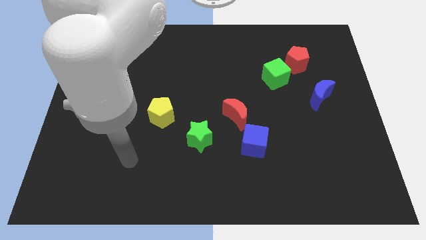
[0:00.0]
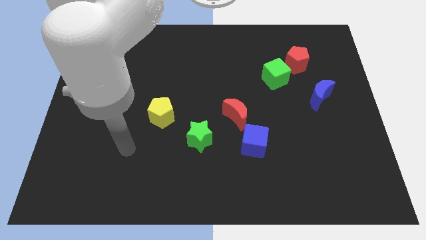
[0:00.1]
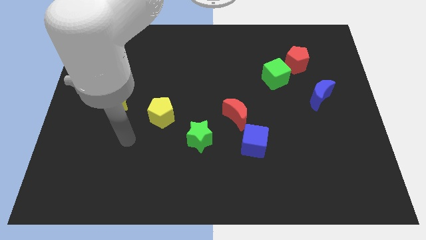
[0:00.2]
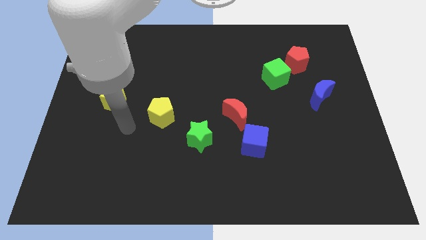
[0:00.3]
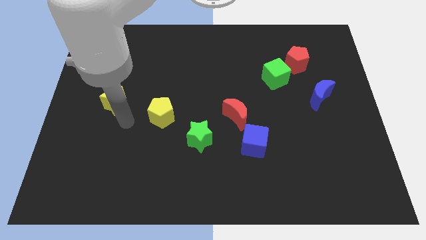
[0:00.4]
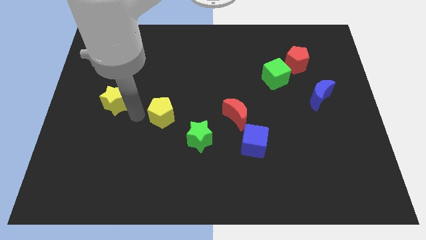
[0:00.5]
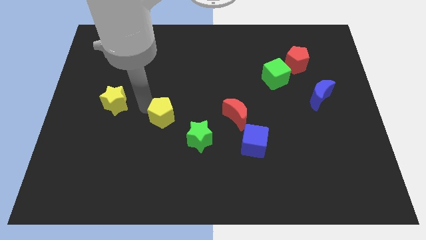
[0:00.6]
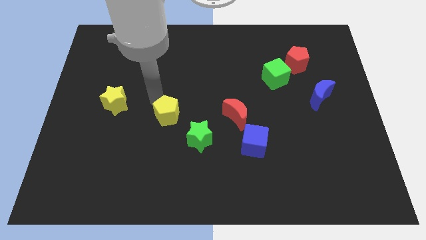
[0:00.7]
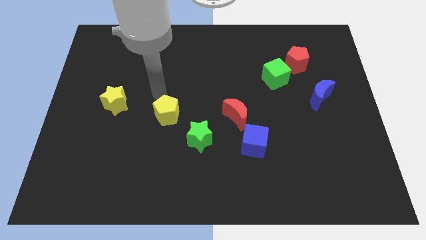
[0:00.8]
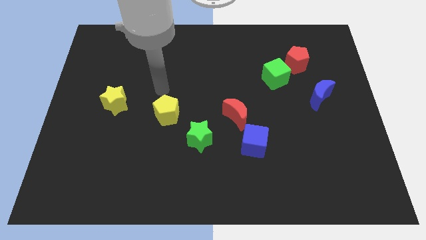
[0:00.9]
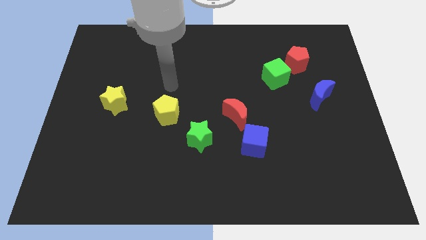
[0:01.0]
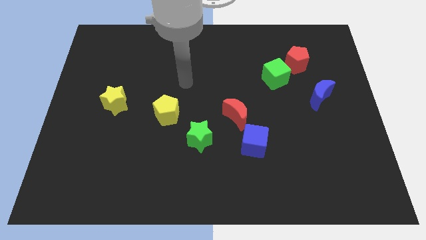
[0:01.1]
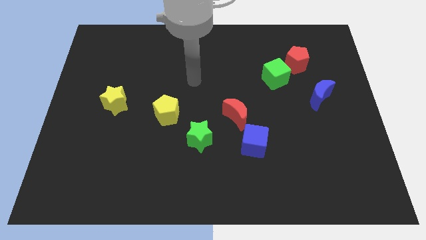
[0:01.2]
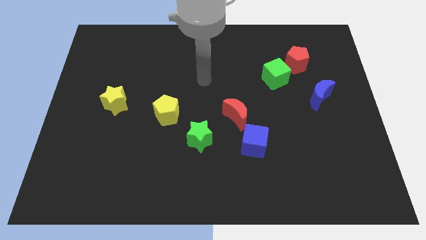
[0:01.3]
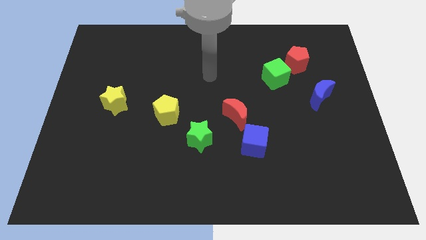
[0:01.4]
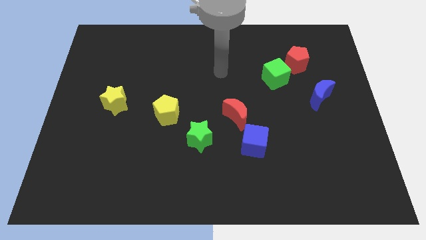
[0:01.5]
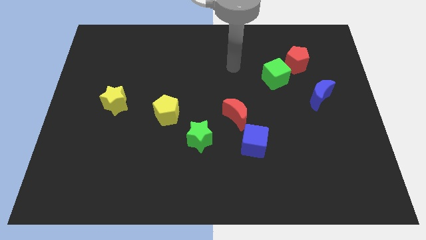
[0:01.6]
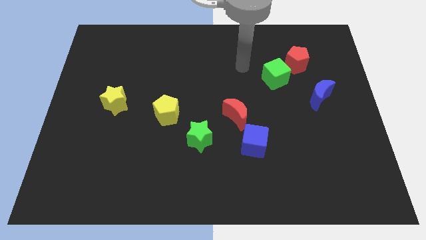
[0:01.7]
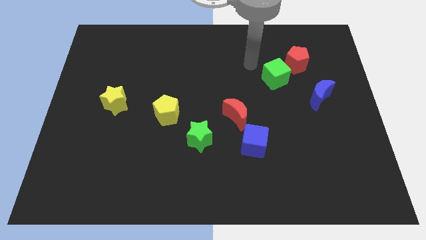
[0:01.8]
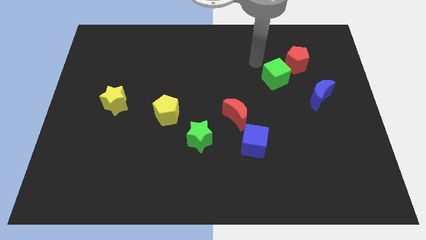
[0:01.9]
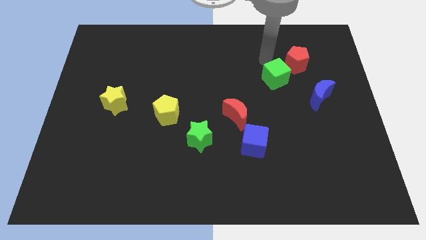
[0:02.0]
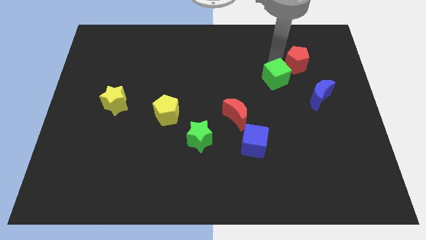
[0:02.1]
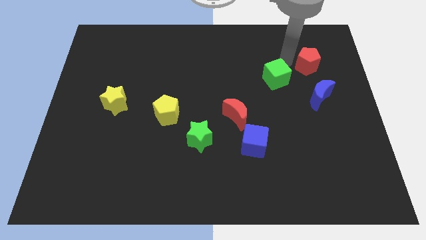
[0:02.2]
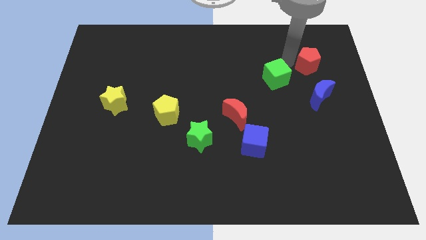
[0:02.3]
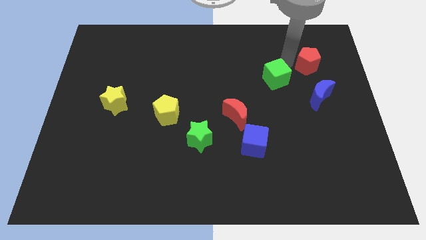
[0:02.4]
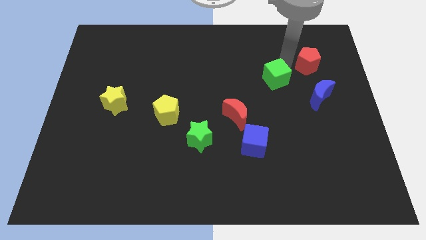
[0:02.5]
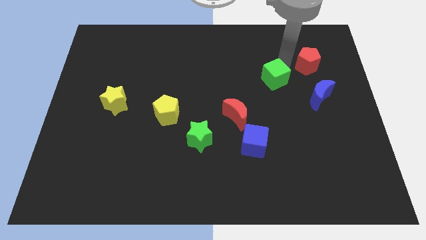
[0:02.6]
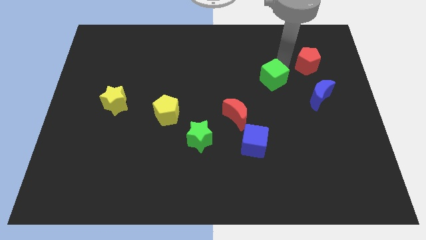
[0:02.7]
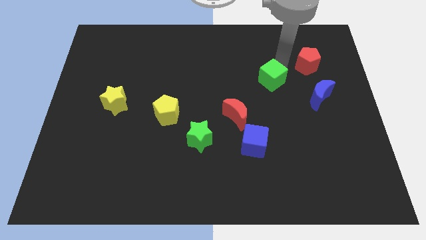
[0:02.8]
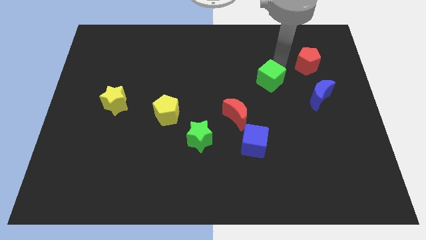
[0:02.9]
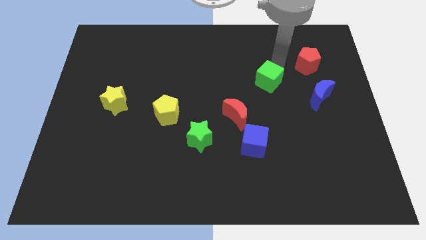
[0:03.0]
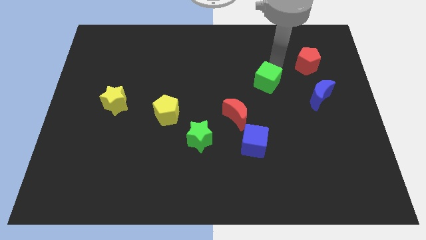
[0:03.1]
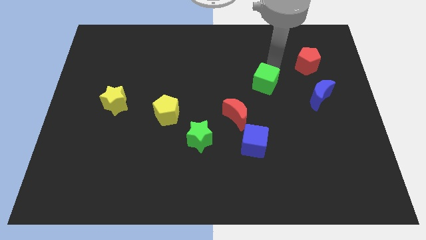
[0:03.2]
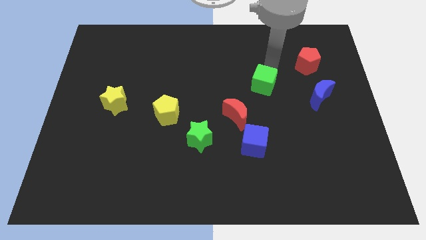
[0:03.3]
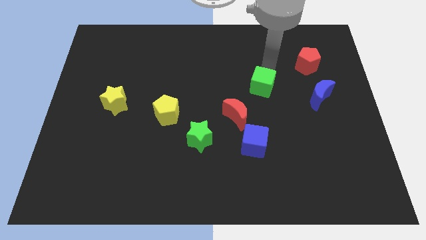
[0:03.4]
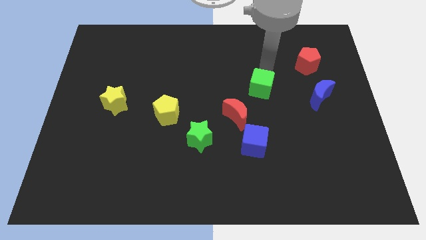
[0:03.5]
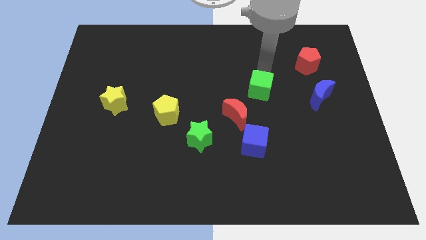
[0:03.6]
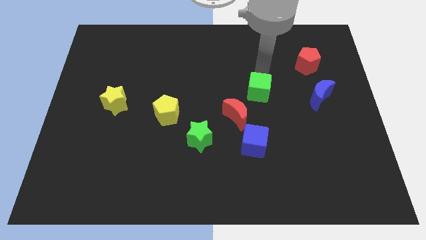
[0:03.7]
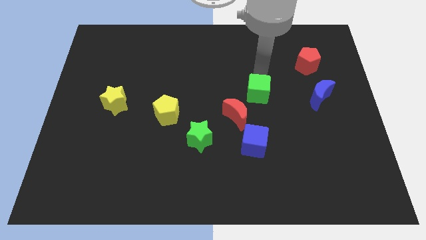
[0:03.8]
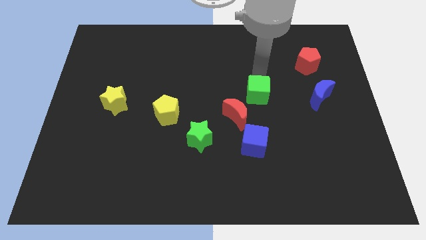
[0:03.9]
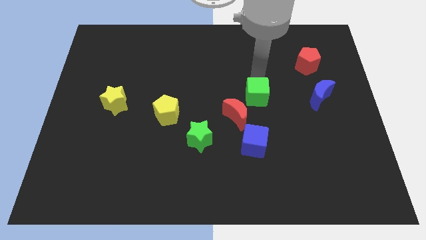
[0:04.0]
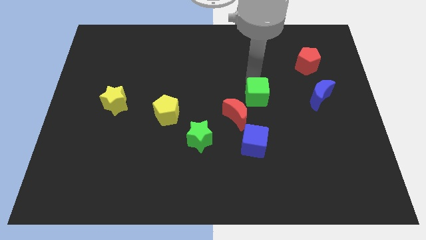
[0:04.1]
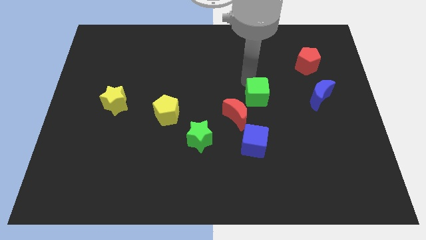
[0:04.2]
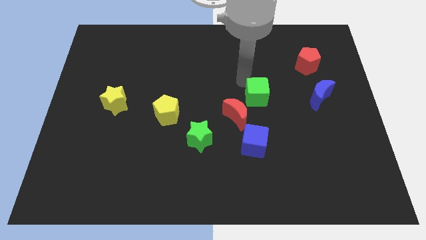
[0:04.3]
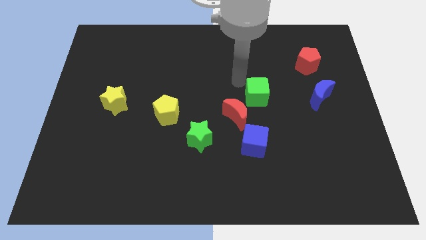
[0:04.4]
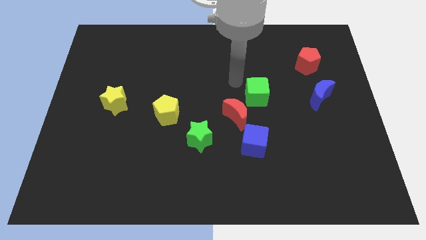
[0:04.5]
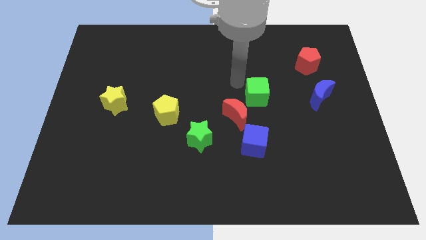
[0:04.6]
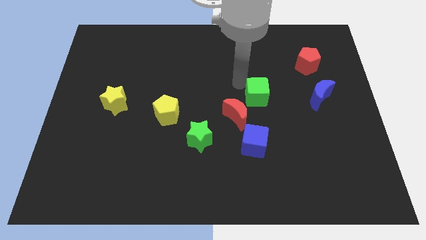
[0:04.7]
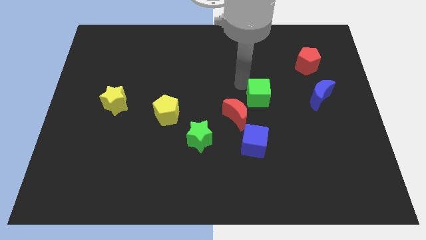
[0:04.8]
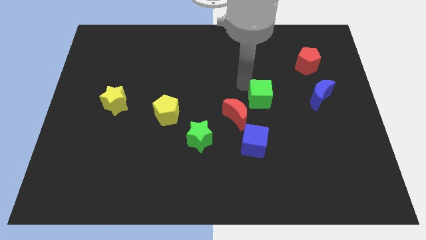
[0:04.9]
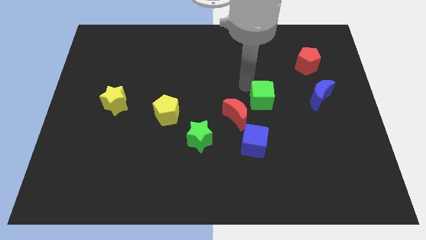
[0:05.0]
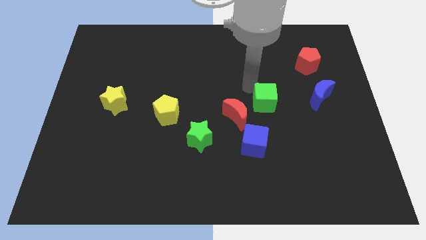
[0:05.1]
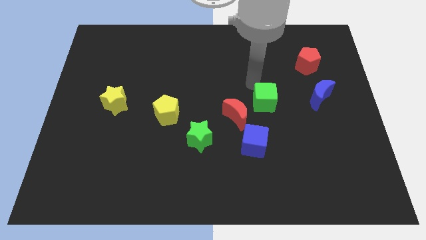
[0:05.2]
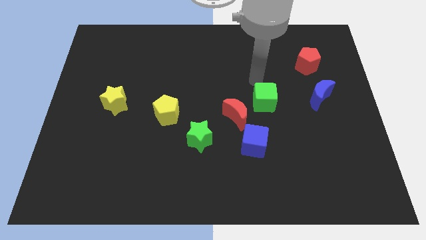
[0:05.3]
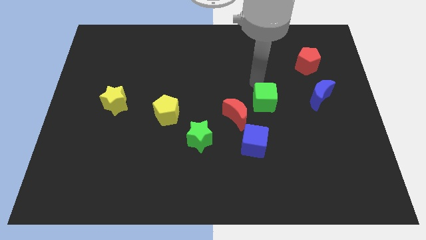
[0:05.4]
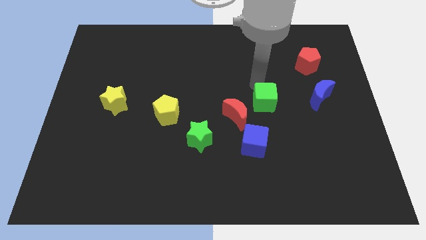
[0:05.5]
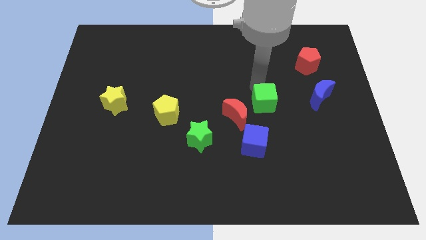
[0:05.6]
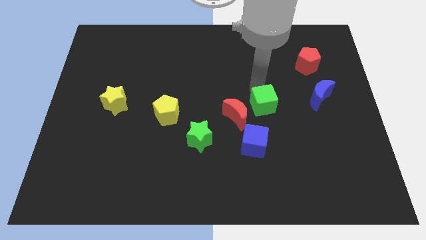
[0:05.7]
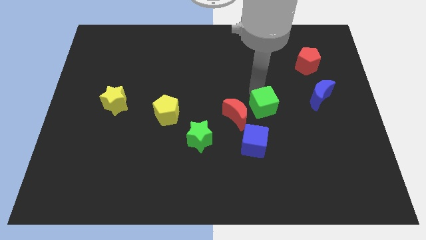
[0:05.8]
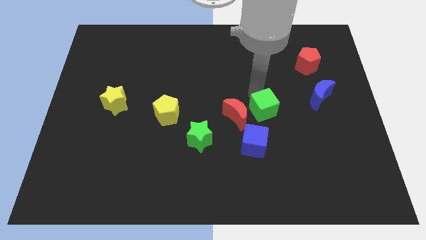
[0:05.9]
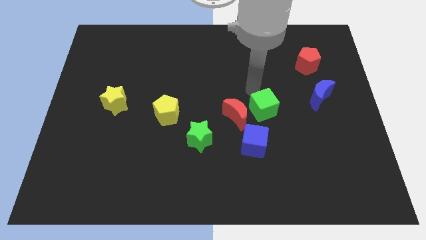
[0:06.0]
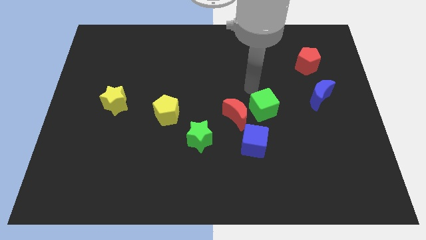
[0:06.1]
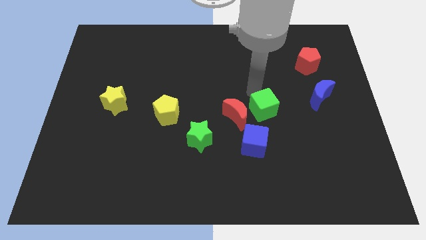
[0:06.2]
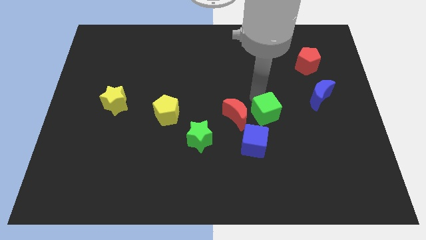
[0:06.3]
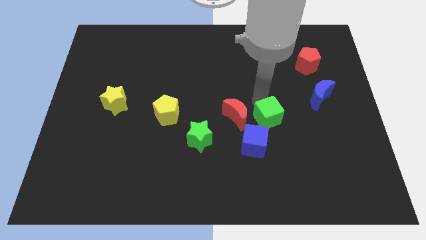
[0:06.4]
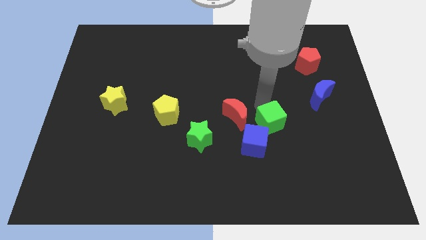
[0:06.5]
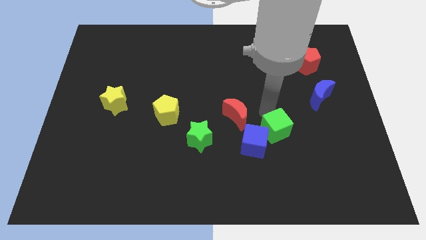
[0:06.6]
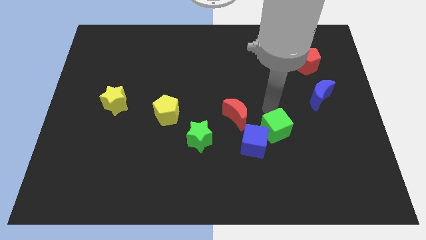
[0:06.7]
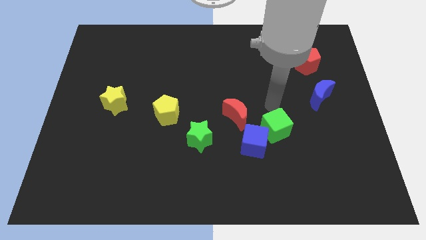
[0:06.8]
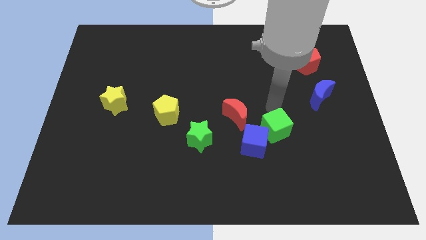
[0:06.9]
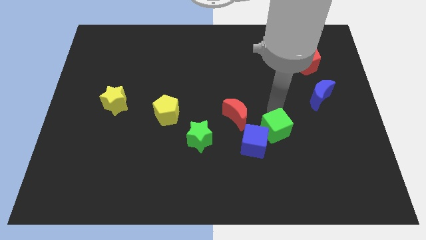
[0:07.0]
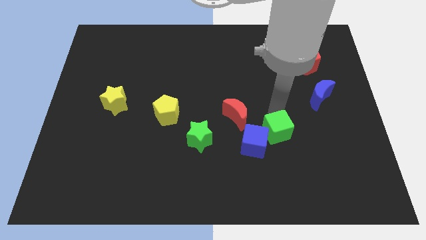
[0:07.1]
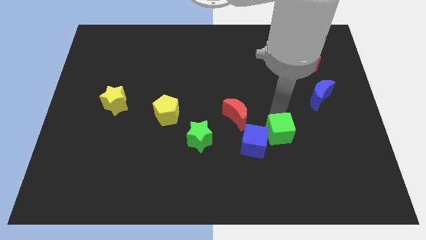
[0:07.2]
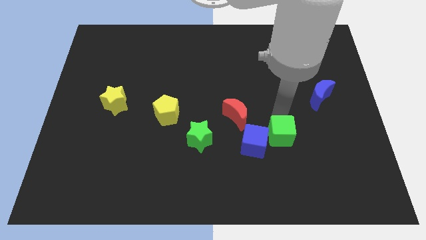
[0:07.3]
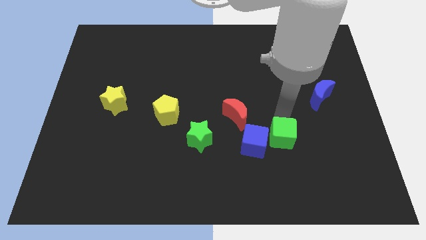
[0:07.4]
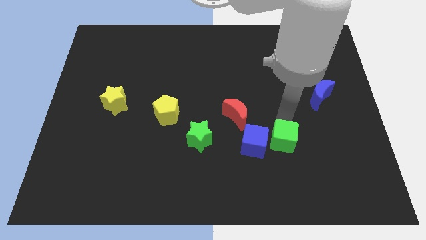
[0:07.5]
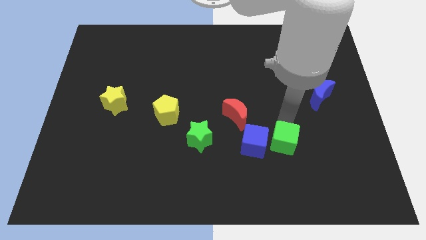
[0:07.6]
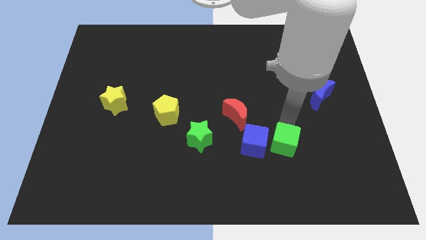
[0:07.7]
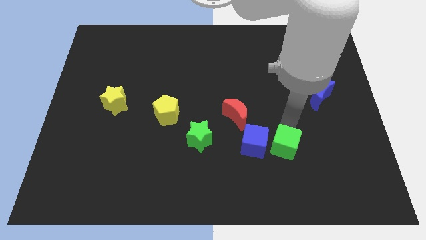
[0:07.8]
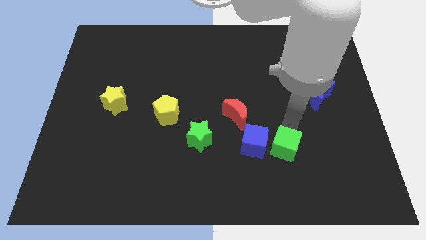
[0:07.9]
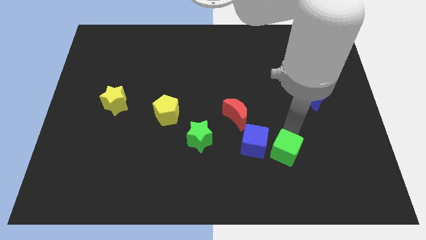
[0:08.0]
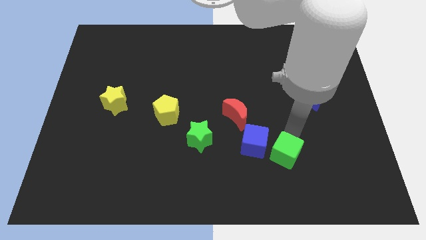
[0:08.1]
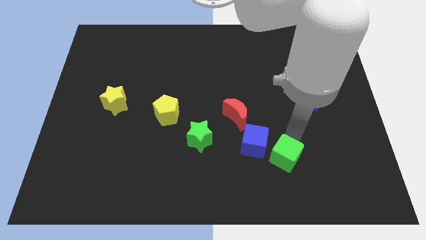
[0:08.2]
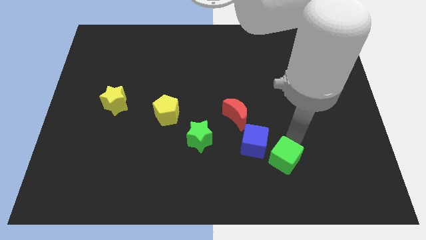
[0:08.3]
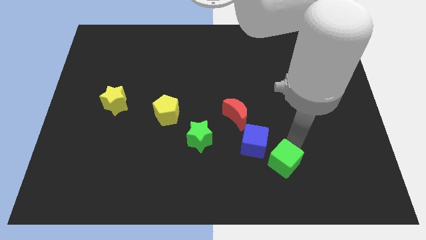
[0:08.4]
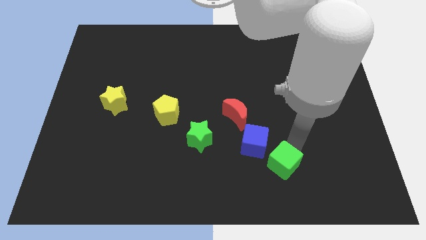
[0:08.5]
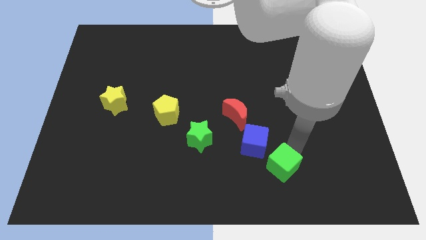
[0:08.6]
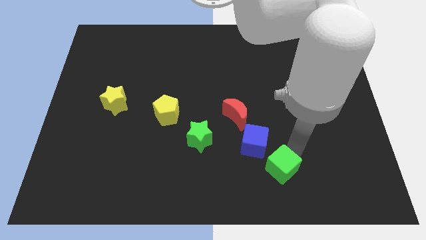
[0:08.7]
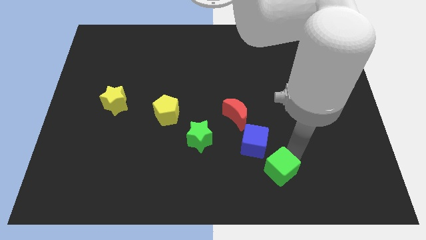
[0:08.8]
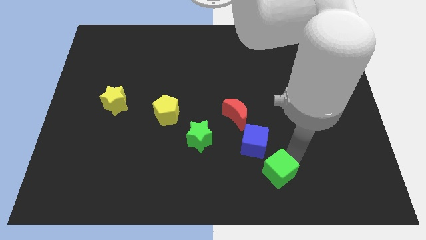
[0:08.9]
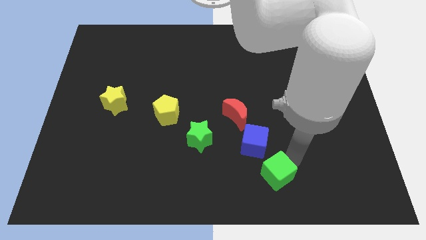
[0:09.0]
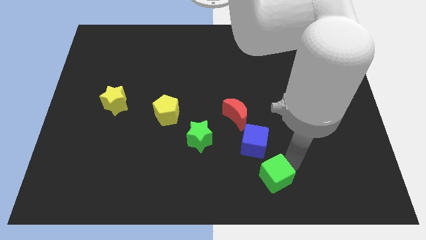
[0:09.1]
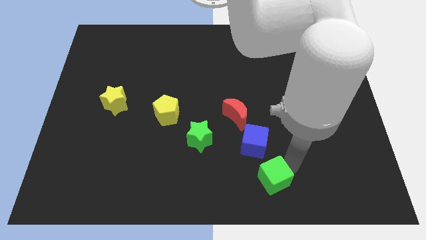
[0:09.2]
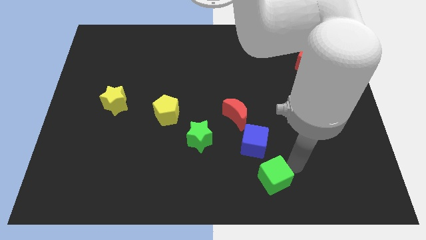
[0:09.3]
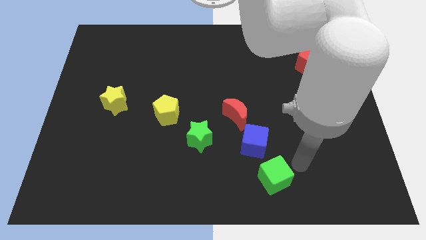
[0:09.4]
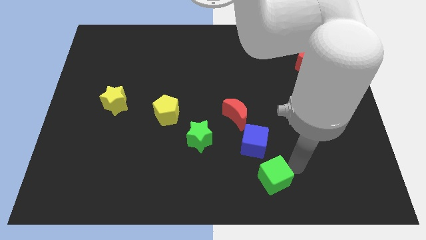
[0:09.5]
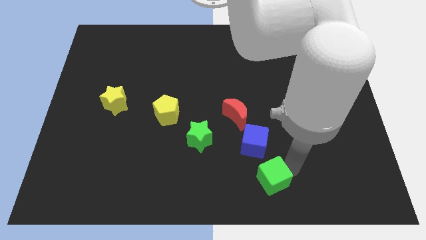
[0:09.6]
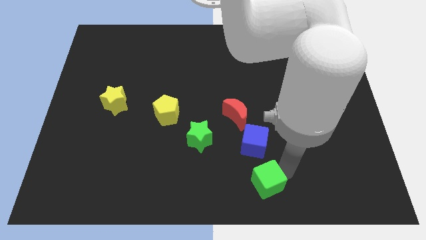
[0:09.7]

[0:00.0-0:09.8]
move the green cube to the bottom side
